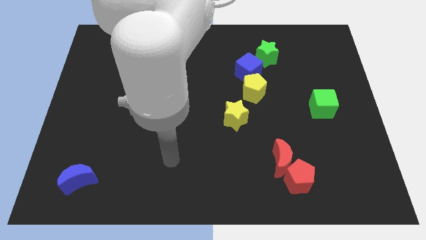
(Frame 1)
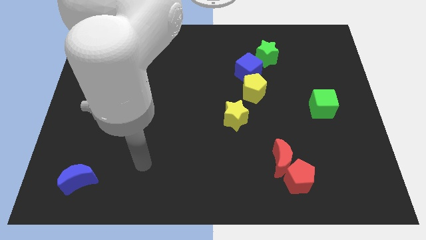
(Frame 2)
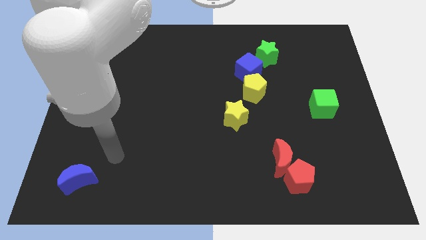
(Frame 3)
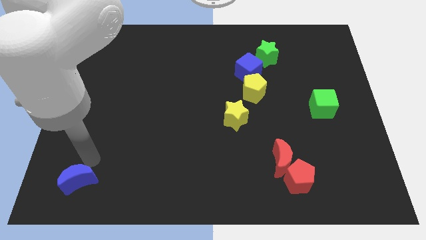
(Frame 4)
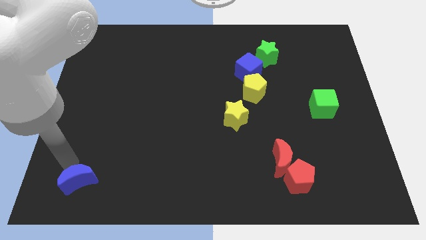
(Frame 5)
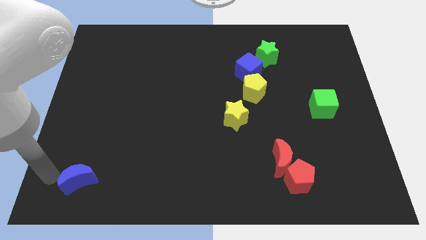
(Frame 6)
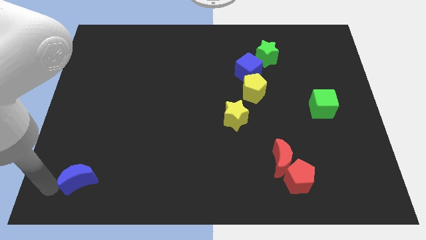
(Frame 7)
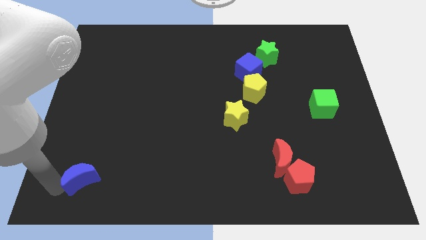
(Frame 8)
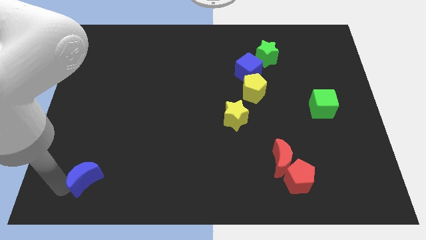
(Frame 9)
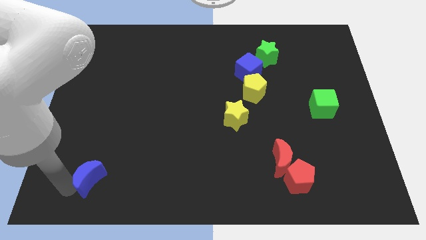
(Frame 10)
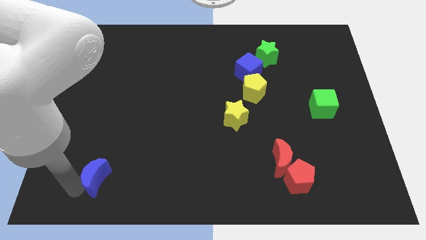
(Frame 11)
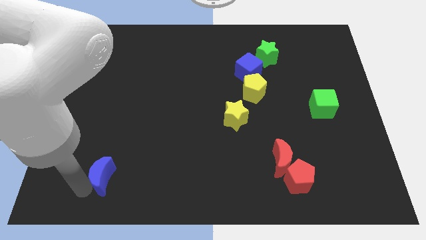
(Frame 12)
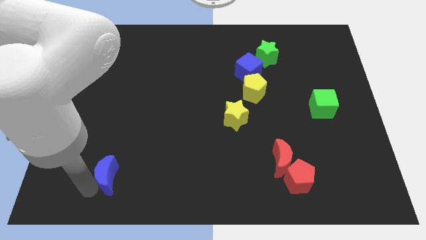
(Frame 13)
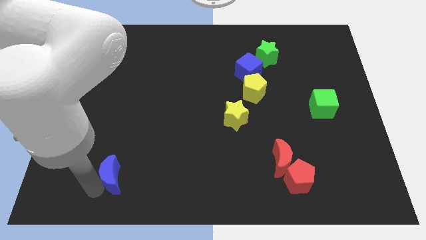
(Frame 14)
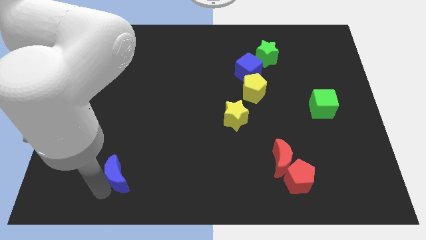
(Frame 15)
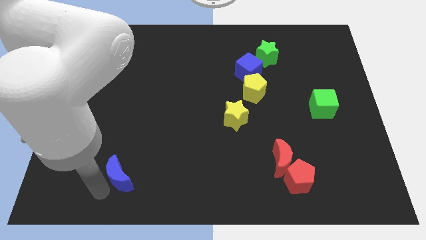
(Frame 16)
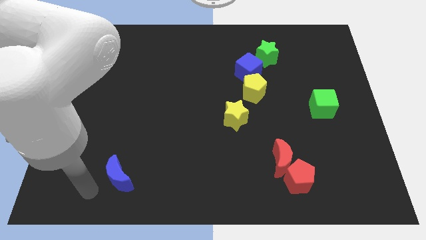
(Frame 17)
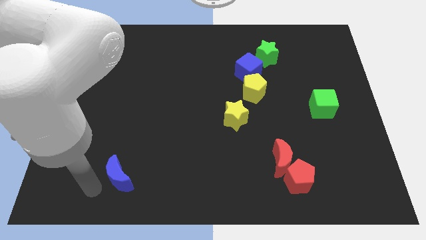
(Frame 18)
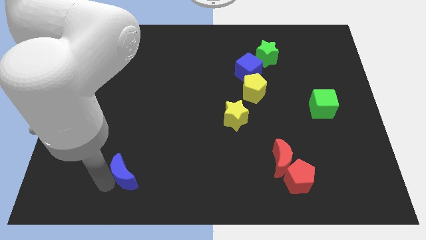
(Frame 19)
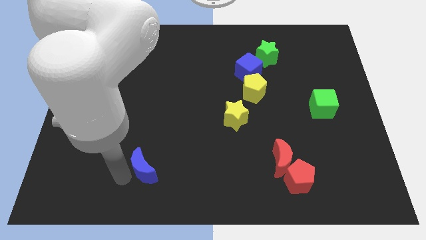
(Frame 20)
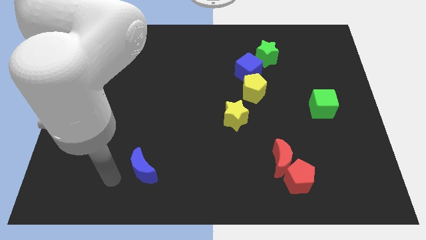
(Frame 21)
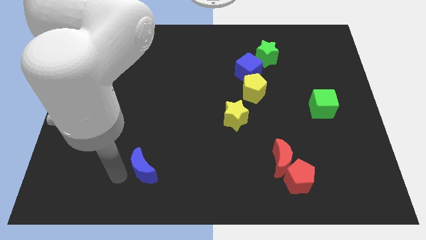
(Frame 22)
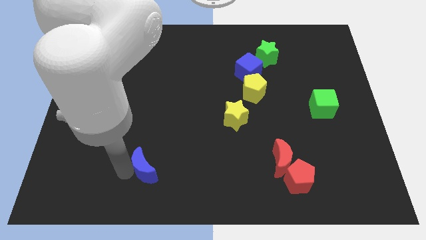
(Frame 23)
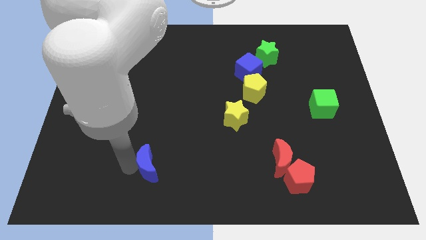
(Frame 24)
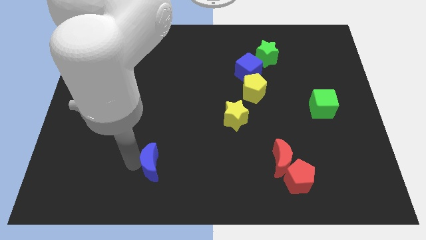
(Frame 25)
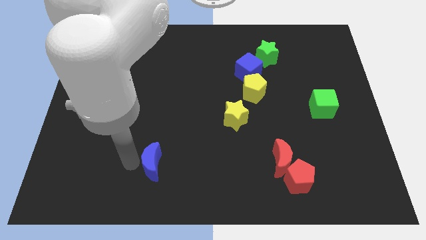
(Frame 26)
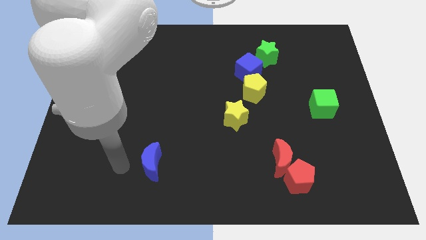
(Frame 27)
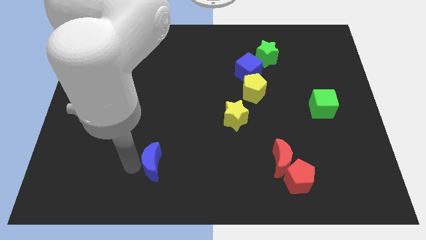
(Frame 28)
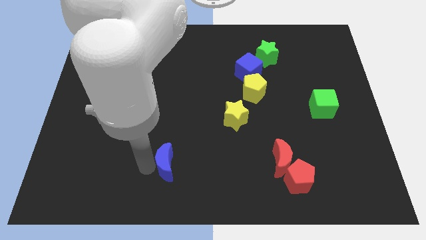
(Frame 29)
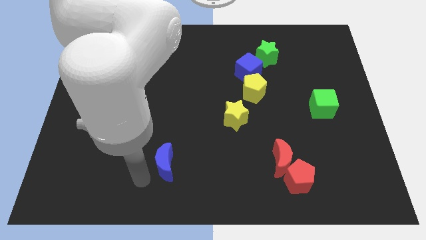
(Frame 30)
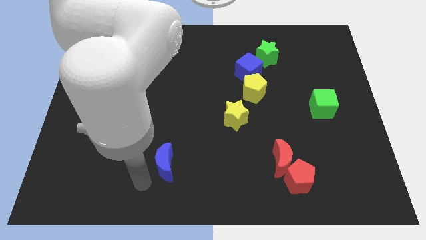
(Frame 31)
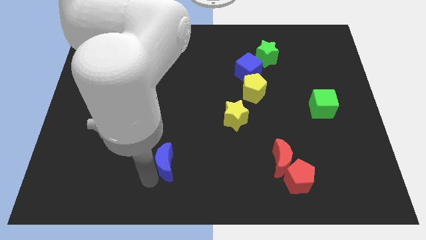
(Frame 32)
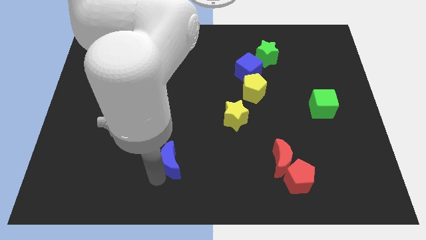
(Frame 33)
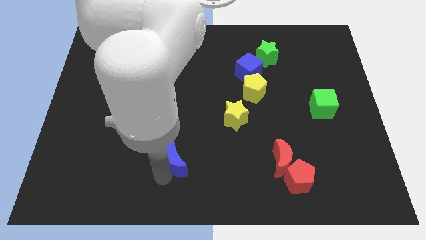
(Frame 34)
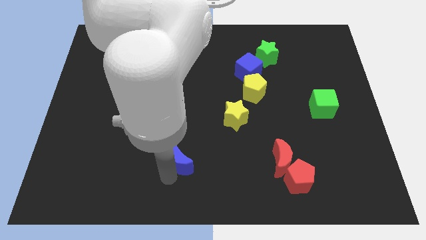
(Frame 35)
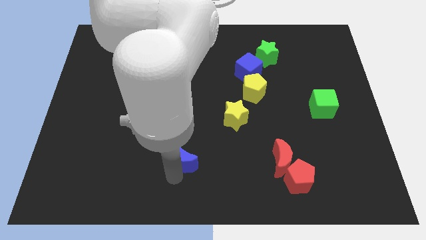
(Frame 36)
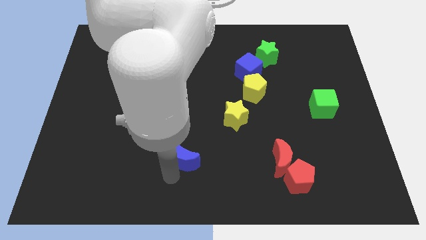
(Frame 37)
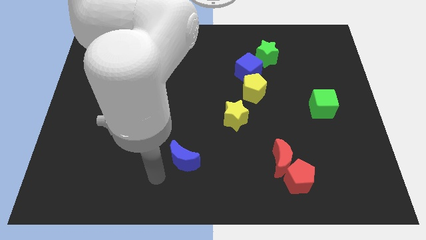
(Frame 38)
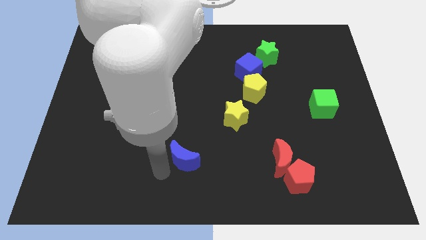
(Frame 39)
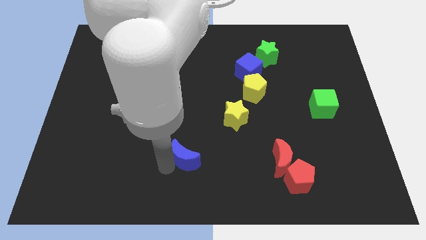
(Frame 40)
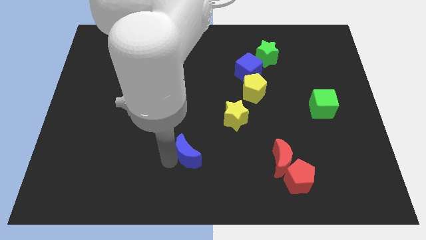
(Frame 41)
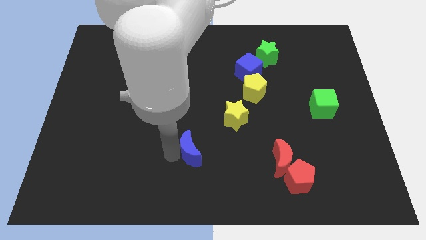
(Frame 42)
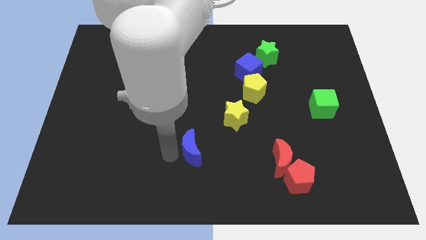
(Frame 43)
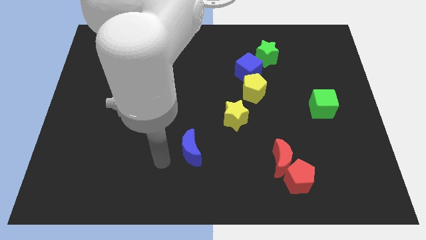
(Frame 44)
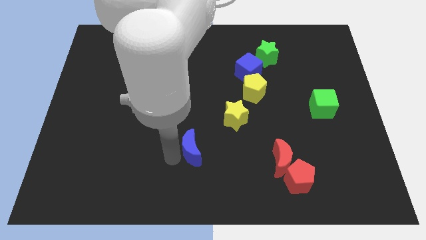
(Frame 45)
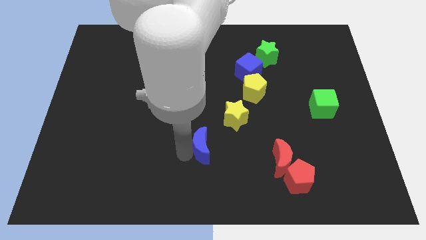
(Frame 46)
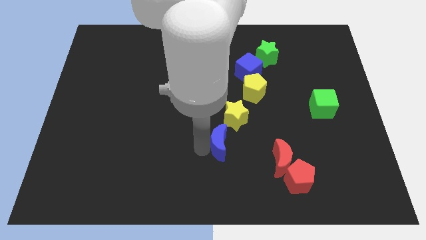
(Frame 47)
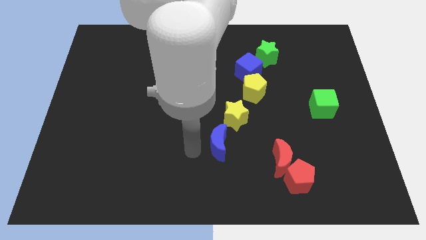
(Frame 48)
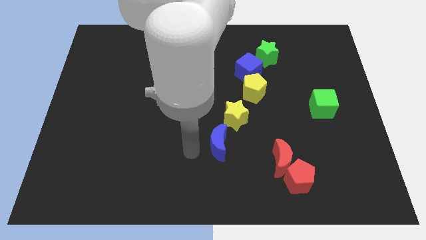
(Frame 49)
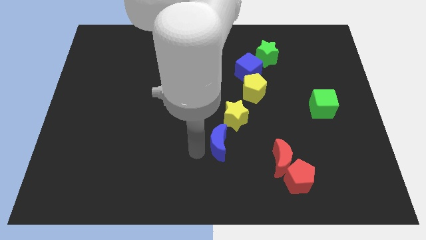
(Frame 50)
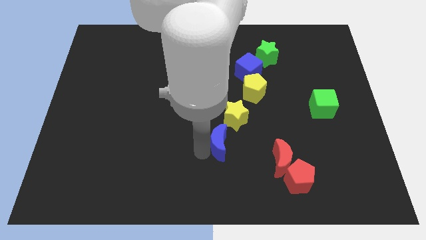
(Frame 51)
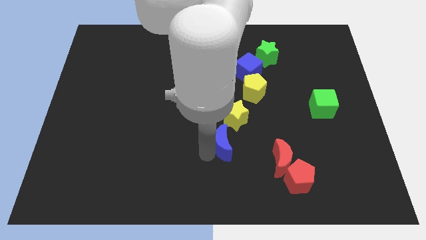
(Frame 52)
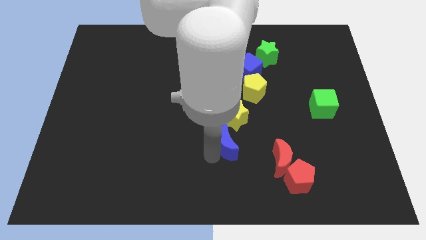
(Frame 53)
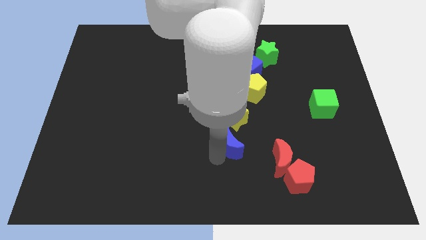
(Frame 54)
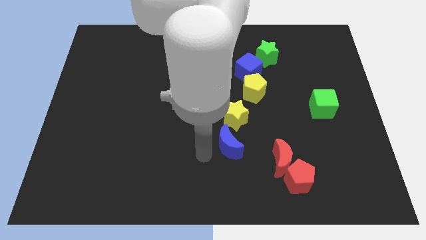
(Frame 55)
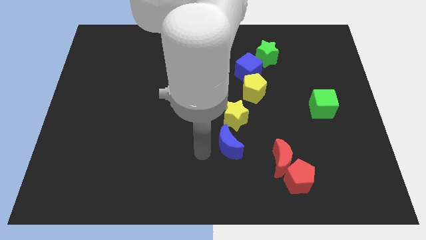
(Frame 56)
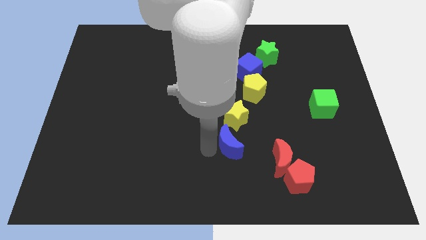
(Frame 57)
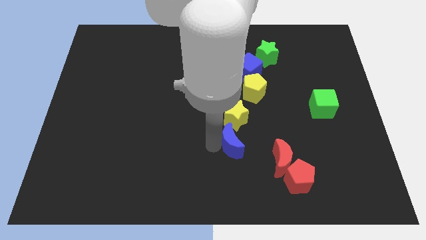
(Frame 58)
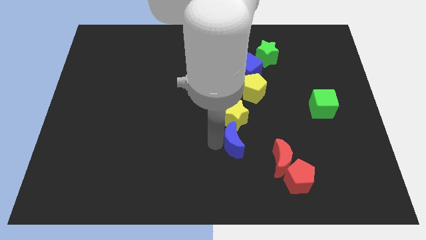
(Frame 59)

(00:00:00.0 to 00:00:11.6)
slide the blue moon to the top left of the red moon

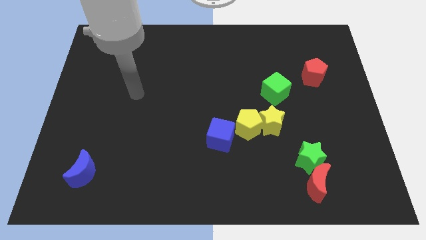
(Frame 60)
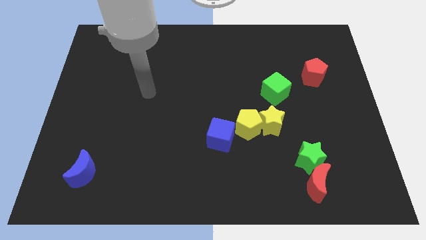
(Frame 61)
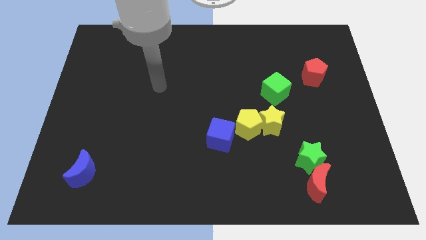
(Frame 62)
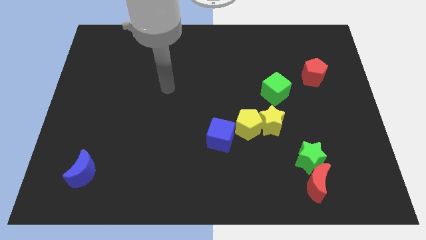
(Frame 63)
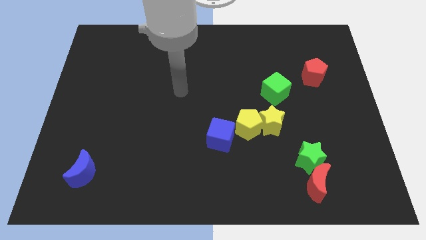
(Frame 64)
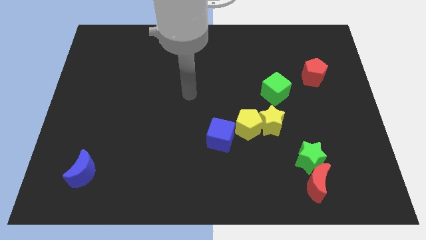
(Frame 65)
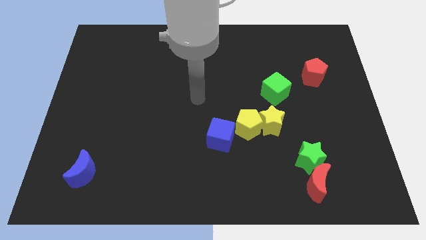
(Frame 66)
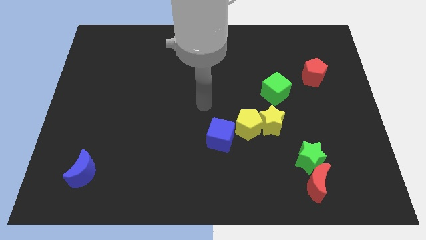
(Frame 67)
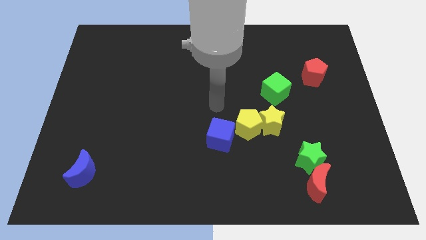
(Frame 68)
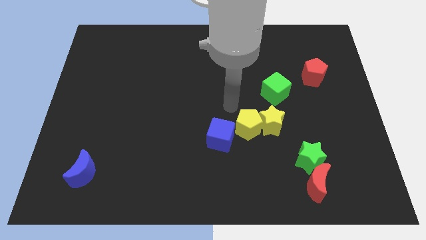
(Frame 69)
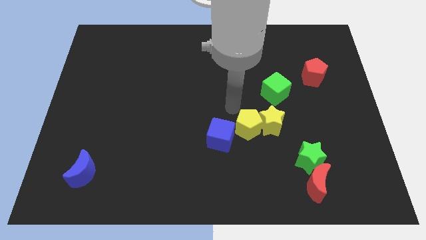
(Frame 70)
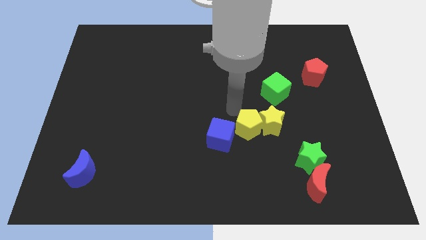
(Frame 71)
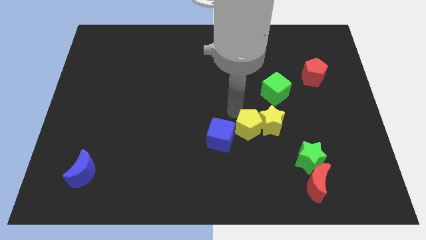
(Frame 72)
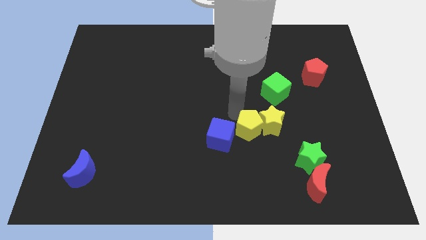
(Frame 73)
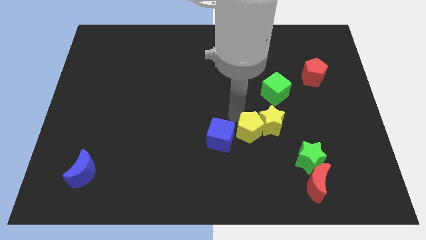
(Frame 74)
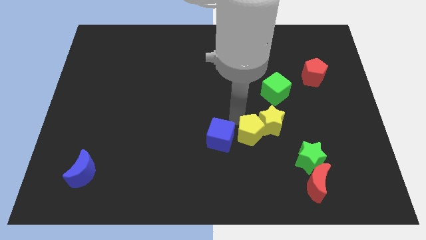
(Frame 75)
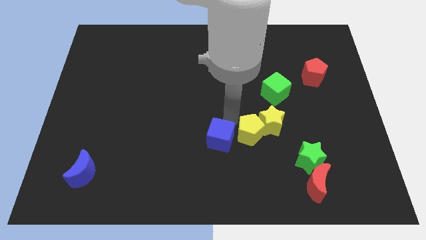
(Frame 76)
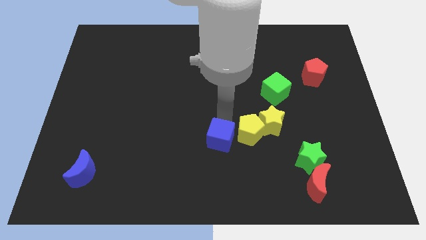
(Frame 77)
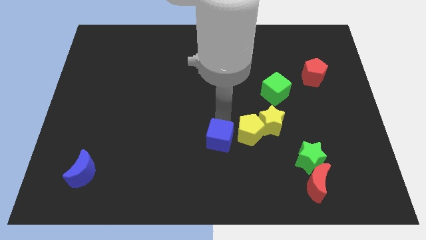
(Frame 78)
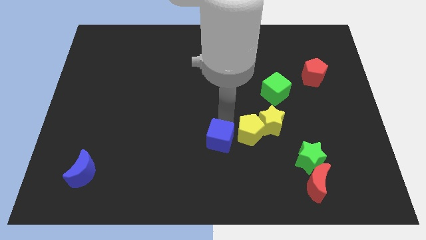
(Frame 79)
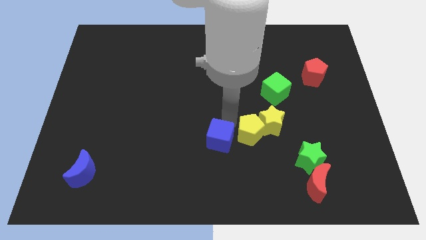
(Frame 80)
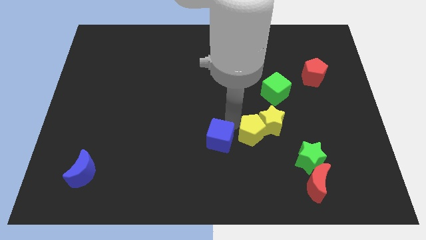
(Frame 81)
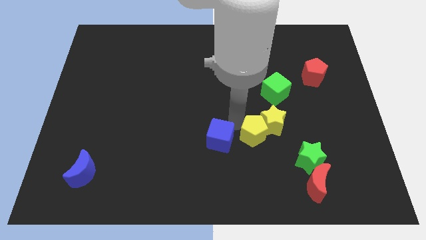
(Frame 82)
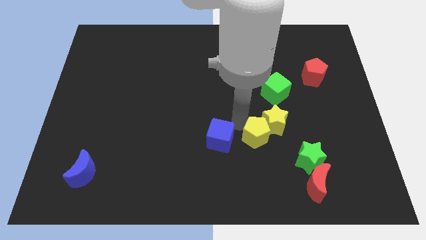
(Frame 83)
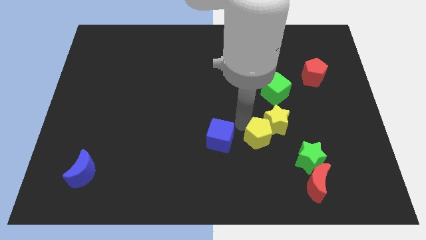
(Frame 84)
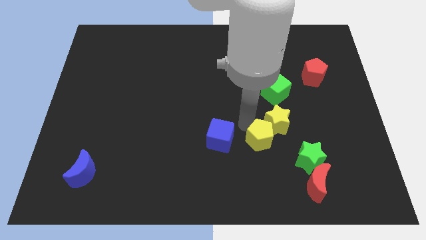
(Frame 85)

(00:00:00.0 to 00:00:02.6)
put the yellow pentagon to the bottom of the green cube
